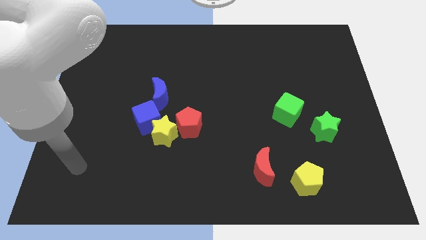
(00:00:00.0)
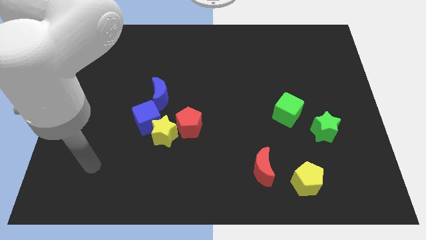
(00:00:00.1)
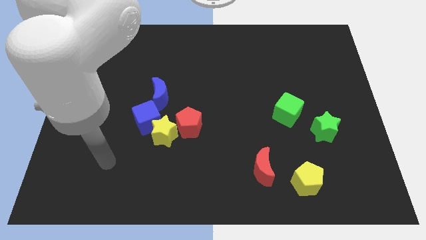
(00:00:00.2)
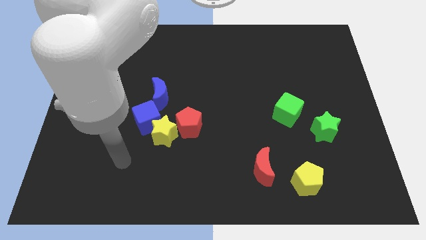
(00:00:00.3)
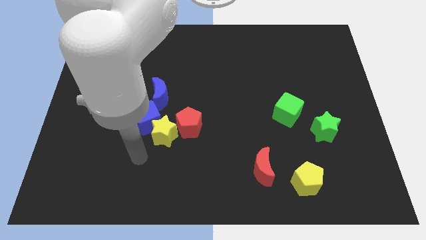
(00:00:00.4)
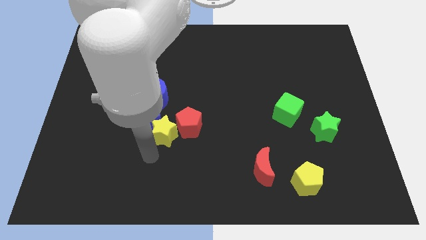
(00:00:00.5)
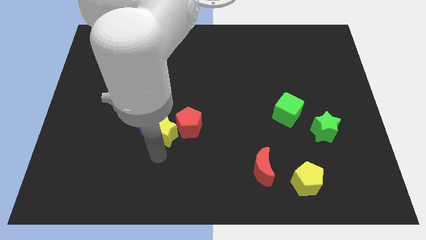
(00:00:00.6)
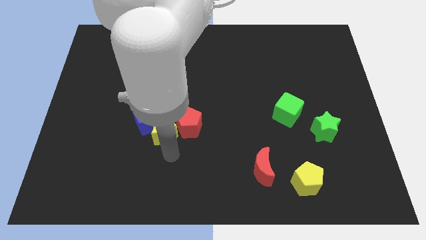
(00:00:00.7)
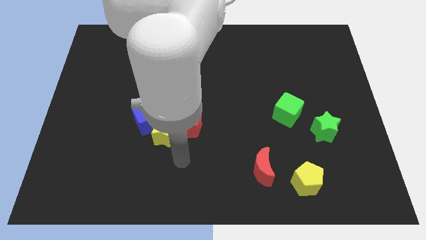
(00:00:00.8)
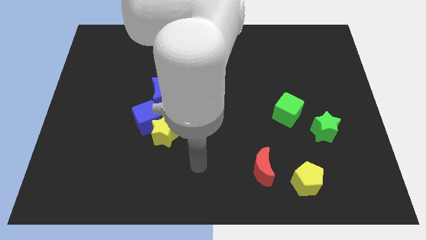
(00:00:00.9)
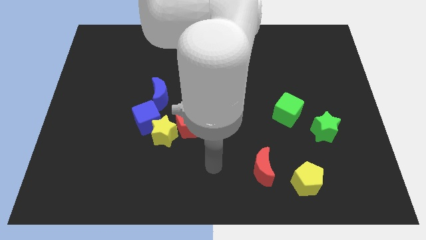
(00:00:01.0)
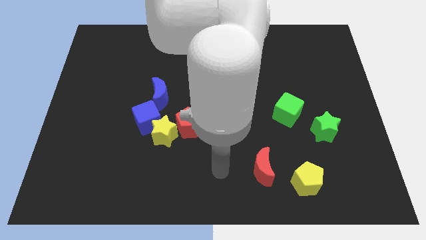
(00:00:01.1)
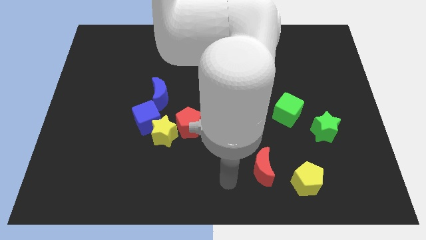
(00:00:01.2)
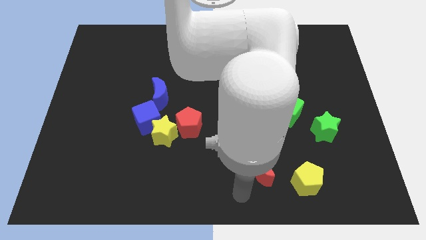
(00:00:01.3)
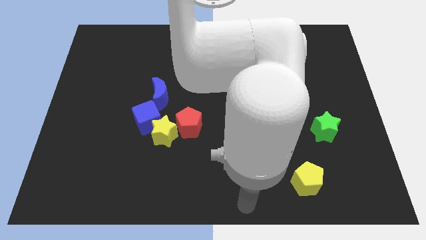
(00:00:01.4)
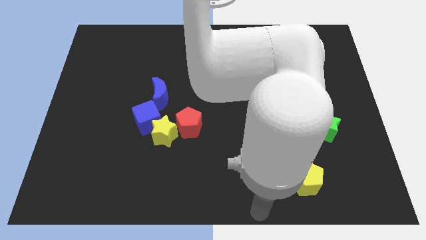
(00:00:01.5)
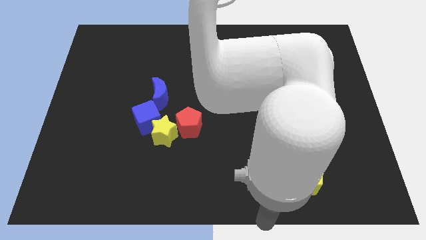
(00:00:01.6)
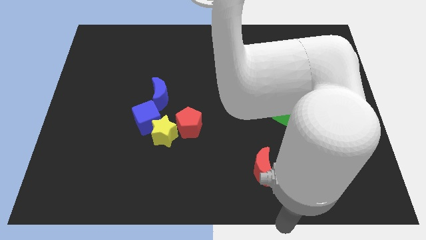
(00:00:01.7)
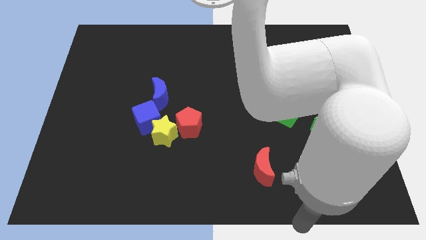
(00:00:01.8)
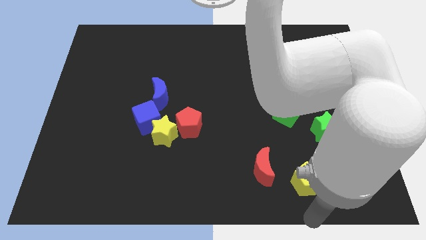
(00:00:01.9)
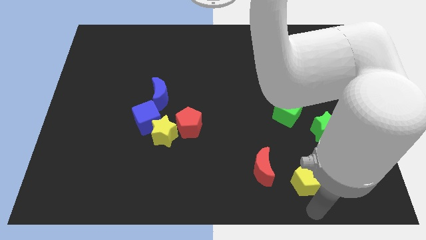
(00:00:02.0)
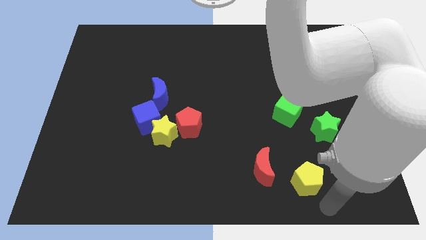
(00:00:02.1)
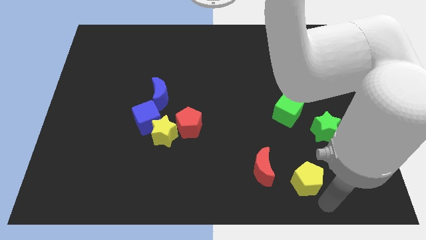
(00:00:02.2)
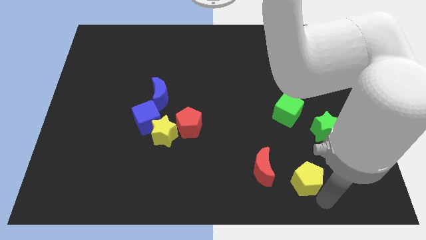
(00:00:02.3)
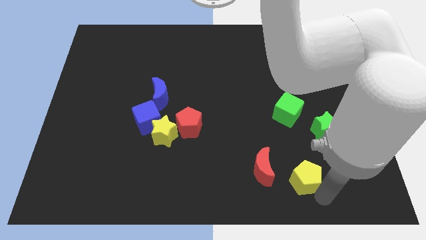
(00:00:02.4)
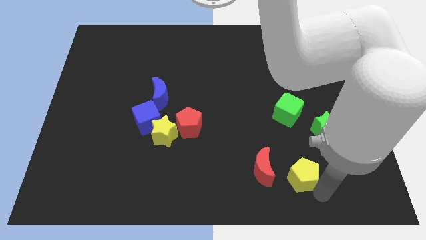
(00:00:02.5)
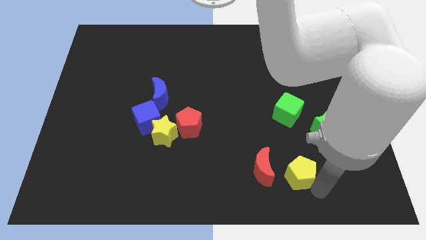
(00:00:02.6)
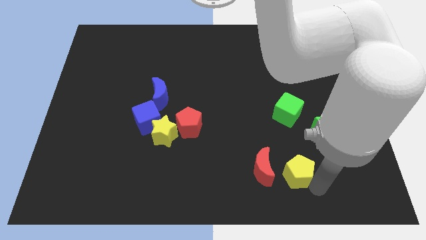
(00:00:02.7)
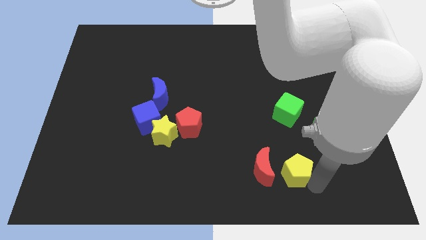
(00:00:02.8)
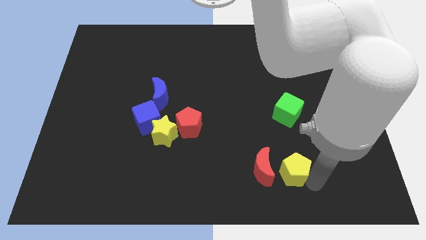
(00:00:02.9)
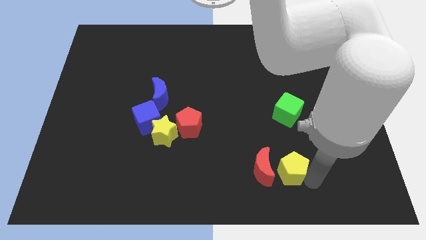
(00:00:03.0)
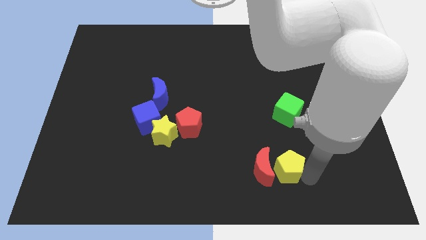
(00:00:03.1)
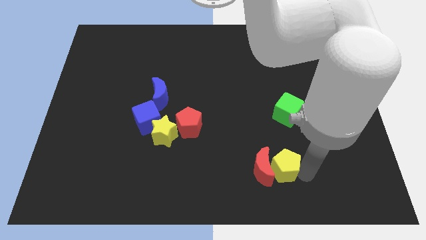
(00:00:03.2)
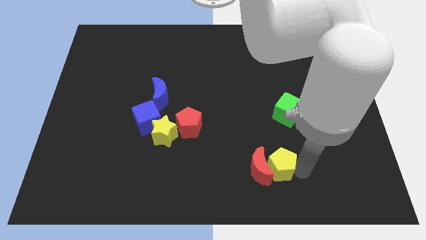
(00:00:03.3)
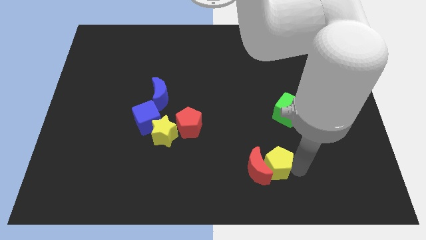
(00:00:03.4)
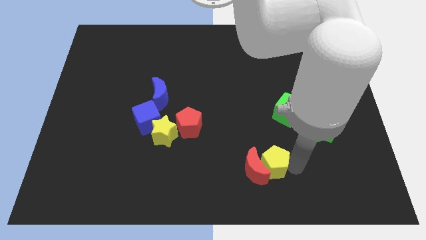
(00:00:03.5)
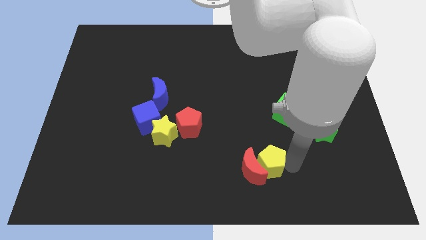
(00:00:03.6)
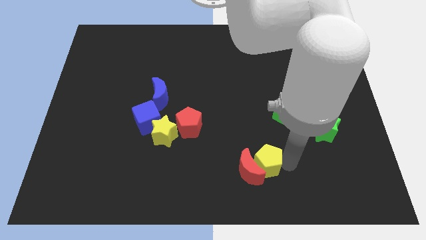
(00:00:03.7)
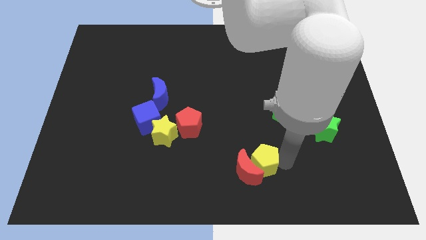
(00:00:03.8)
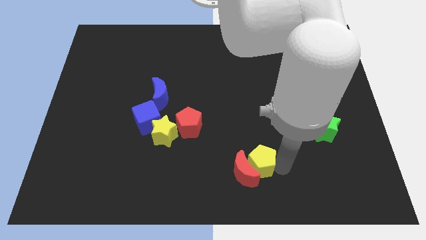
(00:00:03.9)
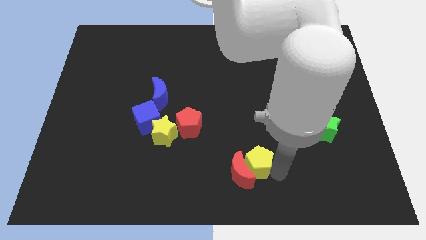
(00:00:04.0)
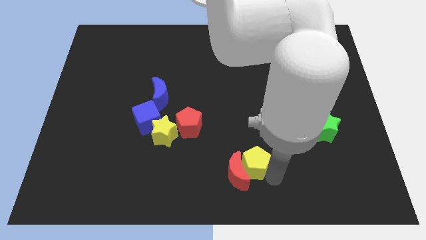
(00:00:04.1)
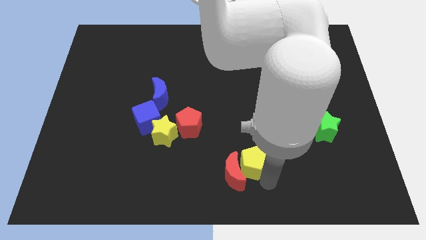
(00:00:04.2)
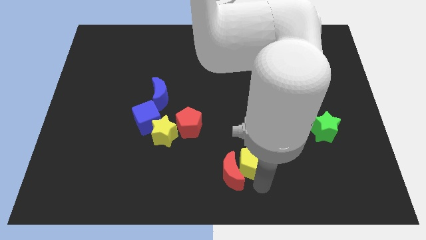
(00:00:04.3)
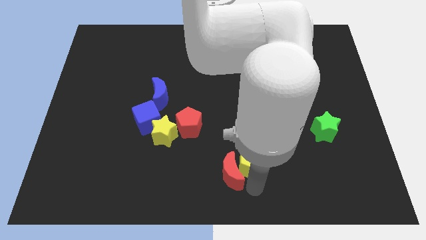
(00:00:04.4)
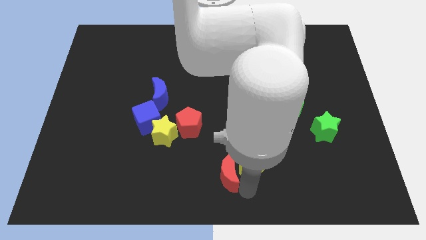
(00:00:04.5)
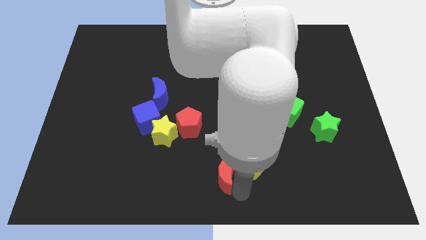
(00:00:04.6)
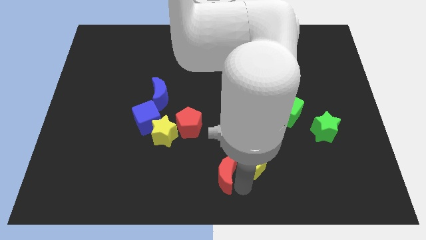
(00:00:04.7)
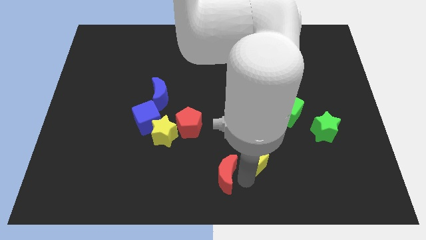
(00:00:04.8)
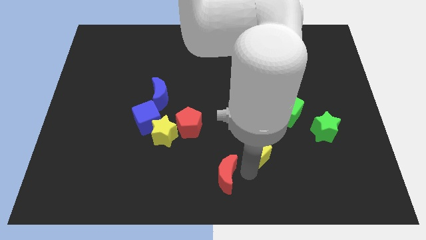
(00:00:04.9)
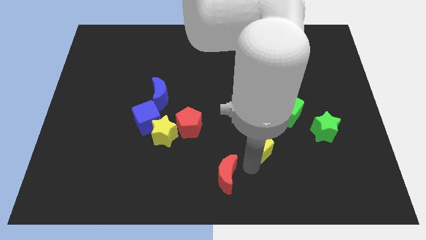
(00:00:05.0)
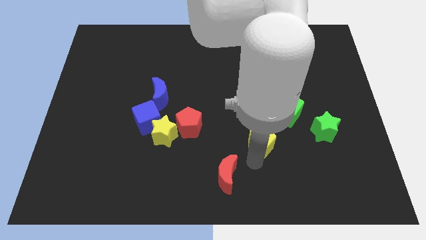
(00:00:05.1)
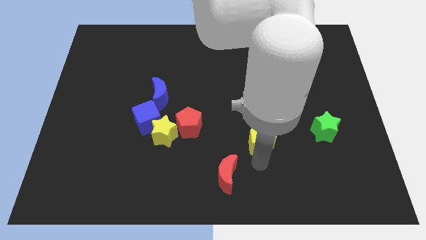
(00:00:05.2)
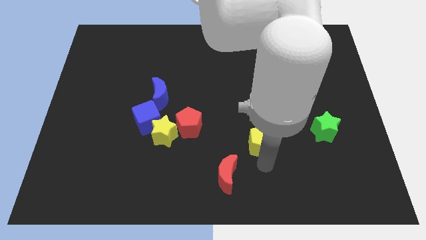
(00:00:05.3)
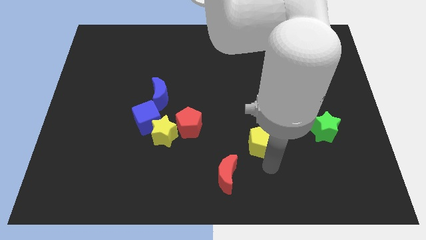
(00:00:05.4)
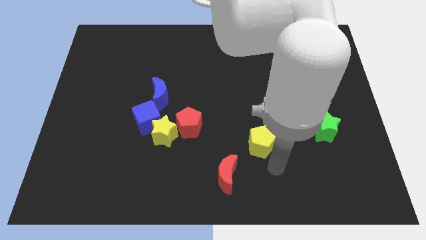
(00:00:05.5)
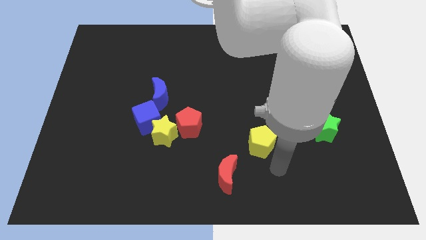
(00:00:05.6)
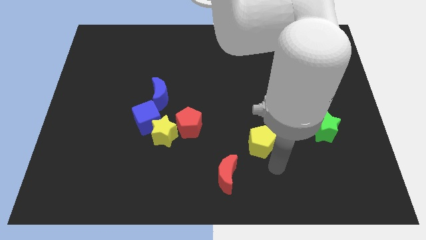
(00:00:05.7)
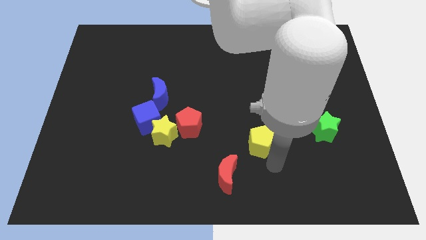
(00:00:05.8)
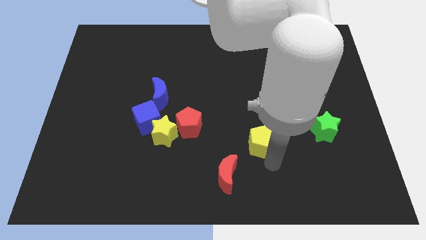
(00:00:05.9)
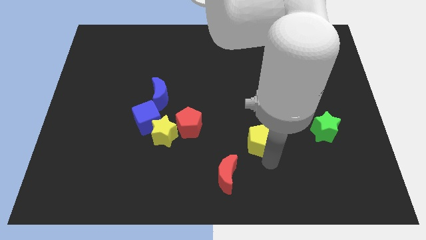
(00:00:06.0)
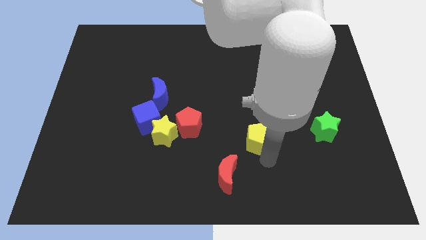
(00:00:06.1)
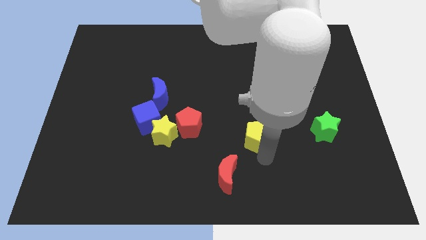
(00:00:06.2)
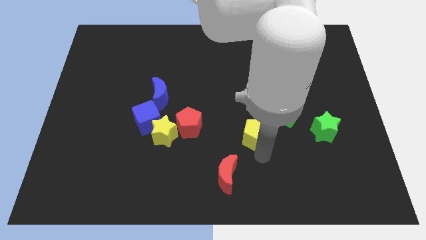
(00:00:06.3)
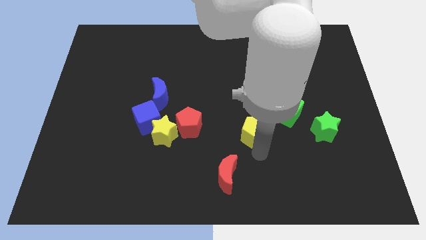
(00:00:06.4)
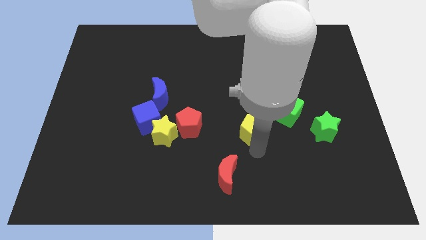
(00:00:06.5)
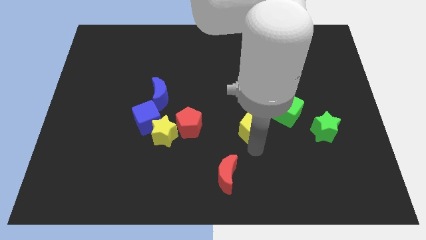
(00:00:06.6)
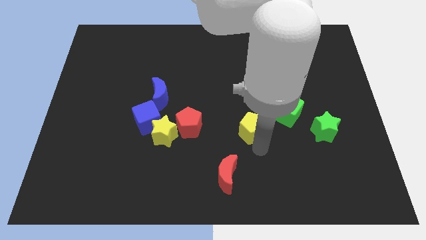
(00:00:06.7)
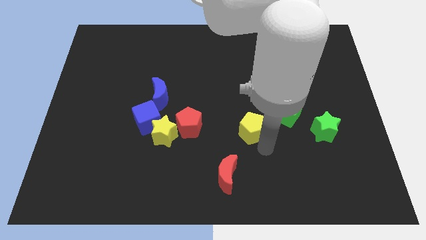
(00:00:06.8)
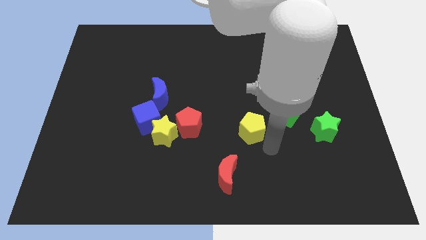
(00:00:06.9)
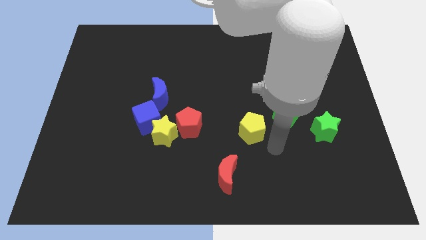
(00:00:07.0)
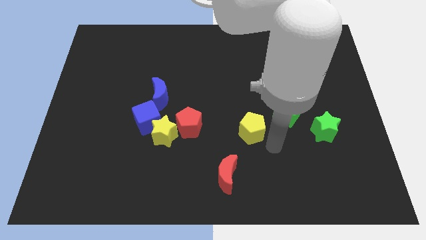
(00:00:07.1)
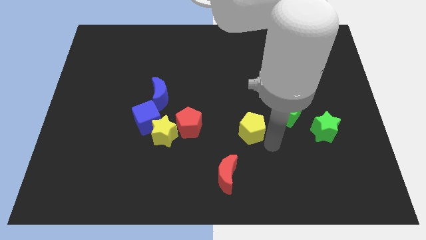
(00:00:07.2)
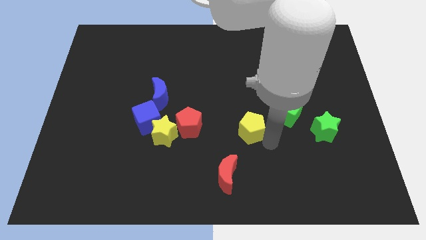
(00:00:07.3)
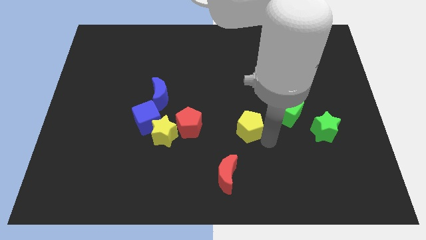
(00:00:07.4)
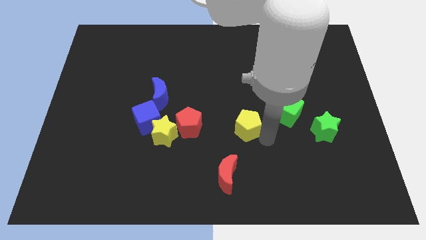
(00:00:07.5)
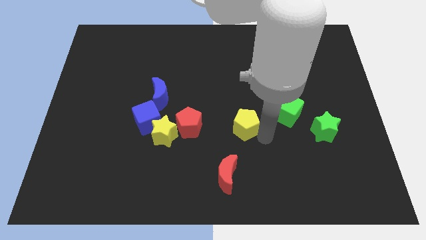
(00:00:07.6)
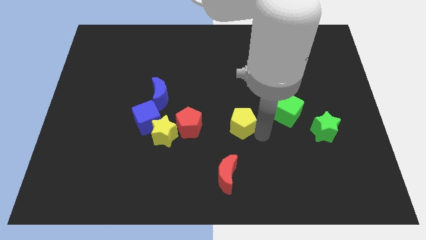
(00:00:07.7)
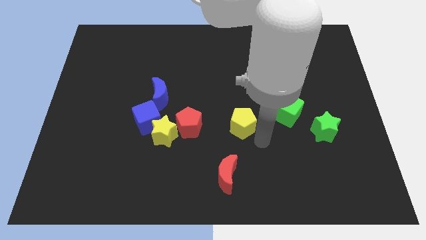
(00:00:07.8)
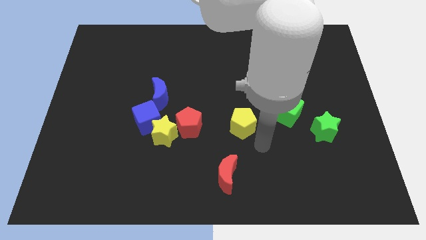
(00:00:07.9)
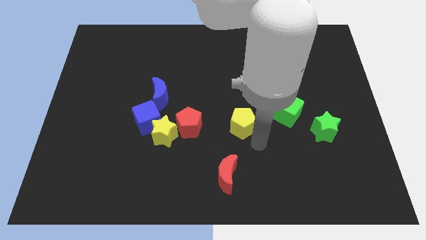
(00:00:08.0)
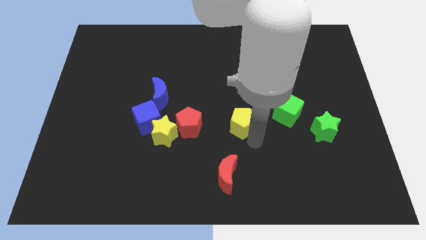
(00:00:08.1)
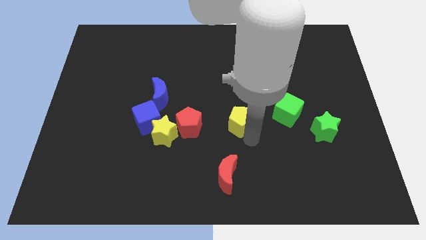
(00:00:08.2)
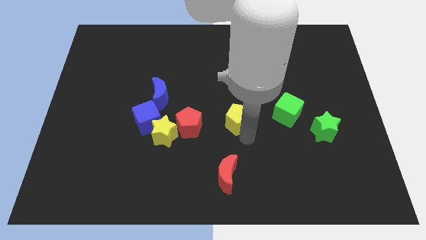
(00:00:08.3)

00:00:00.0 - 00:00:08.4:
slide the yellow pentagon up and then to the left
